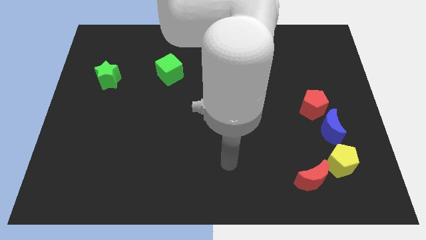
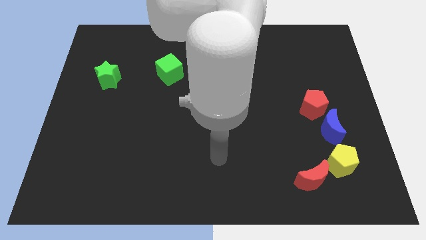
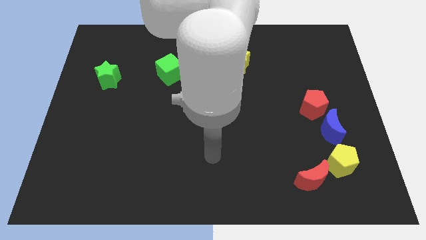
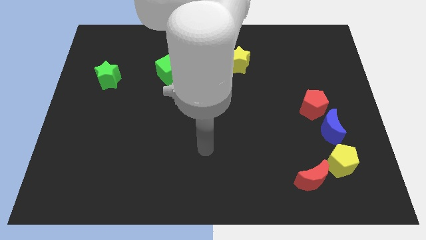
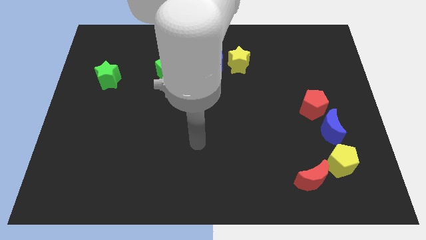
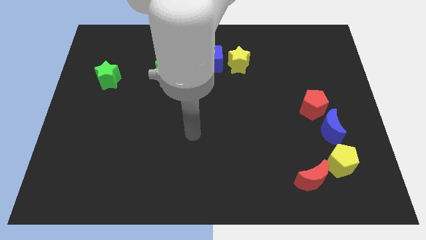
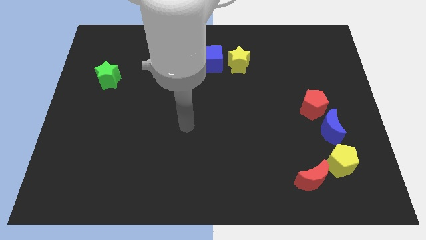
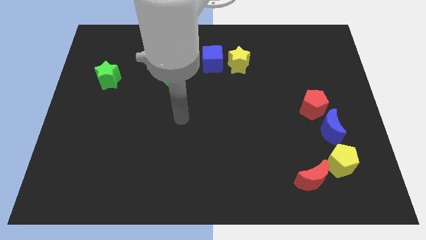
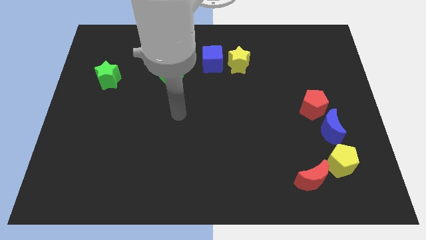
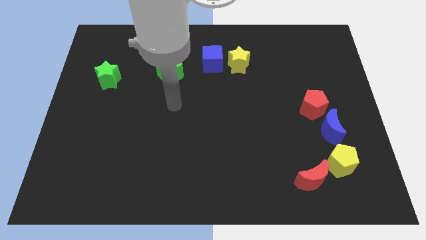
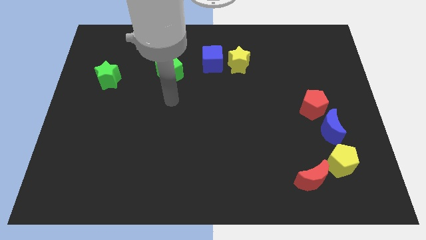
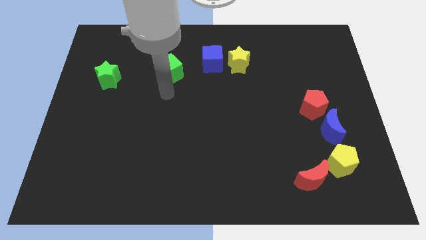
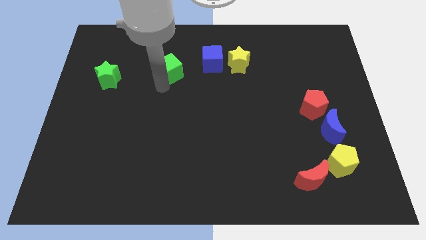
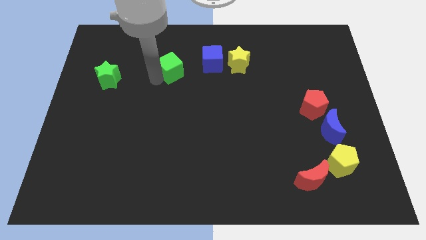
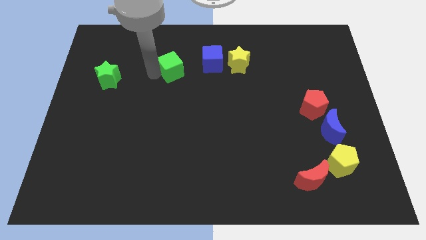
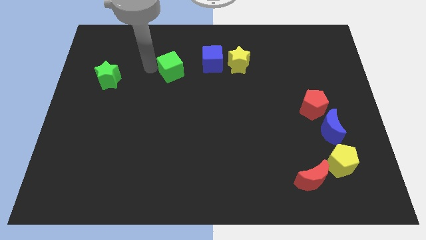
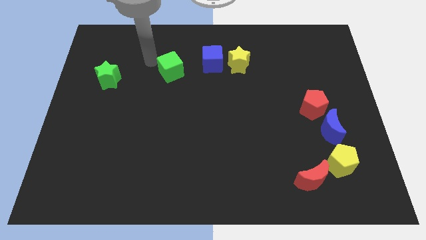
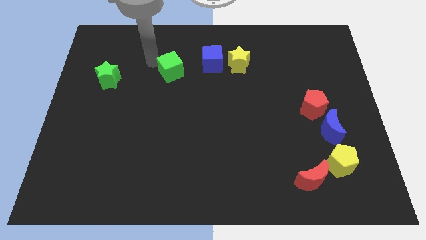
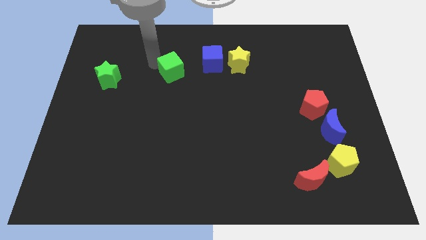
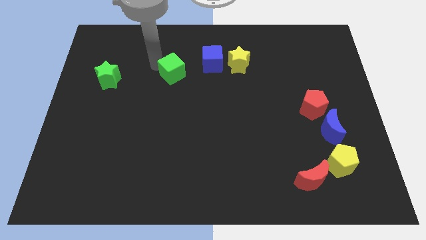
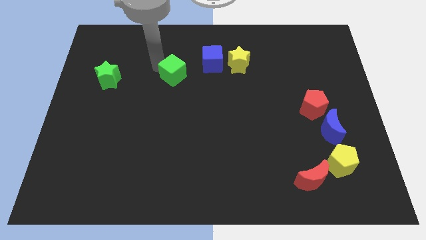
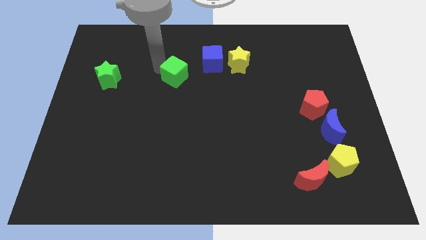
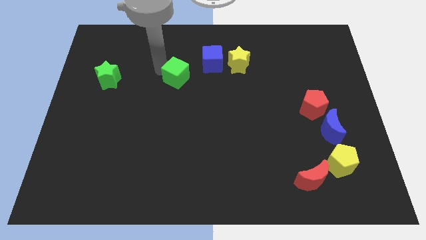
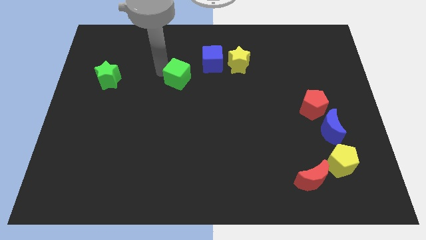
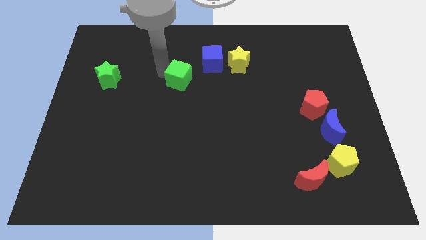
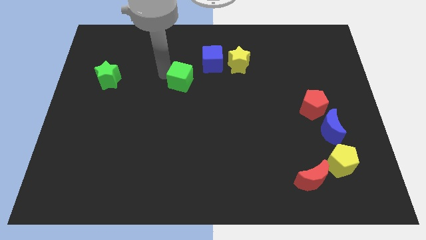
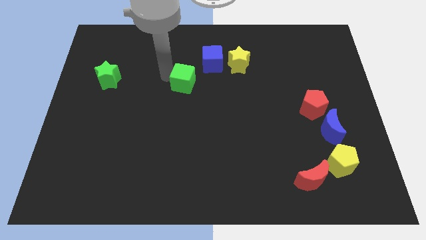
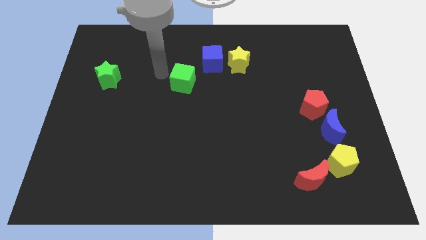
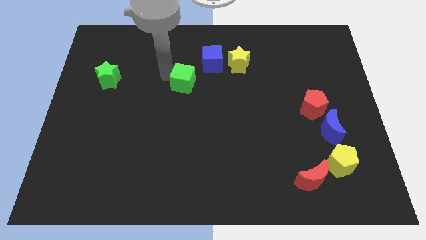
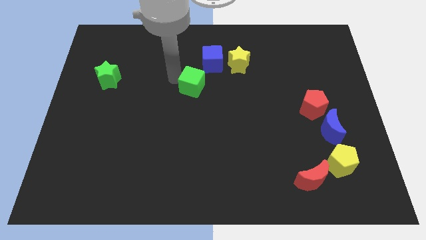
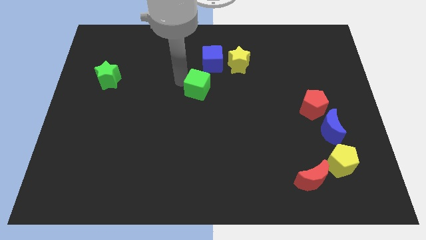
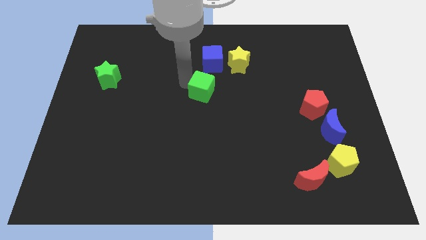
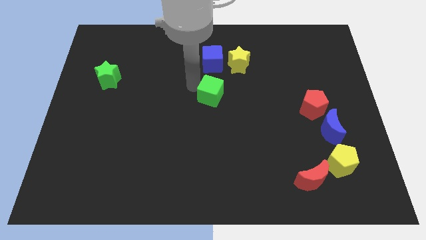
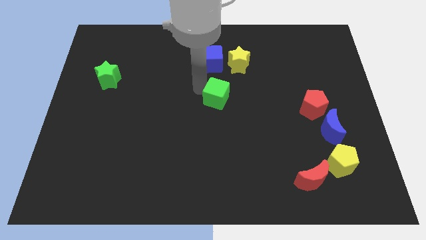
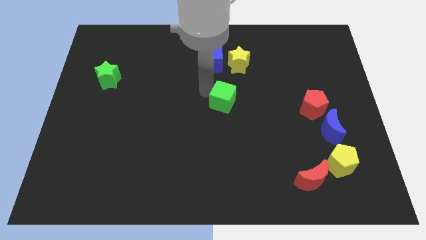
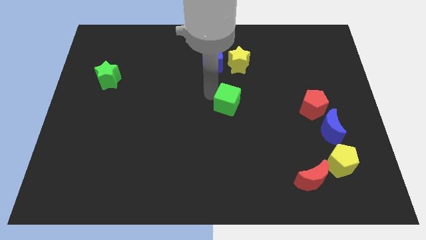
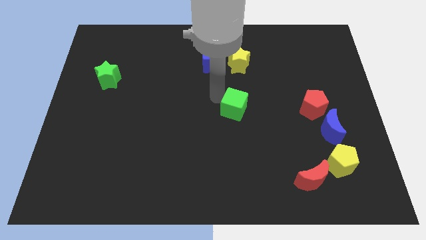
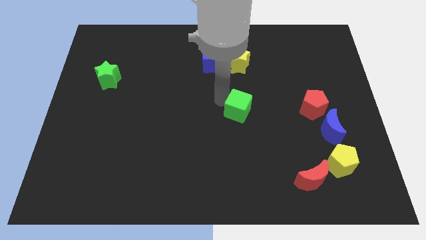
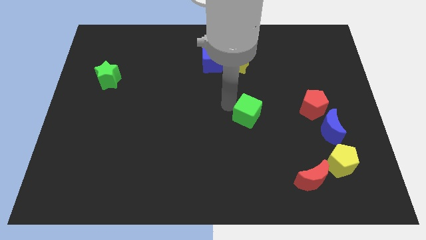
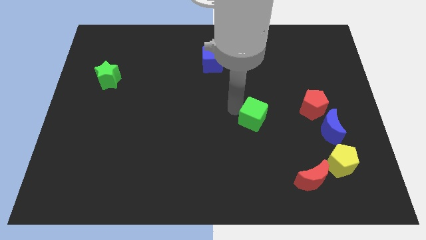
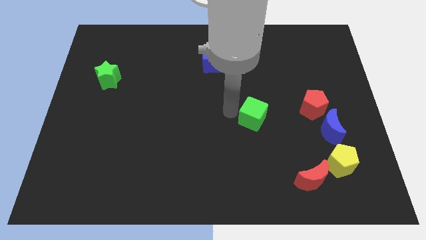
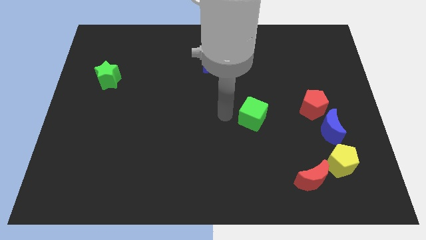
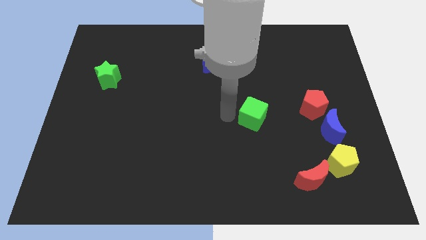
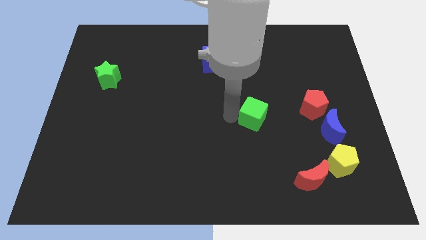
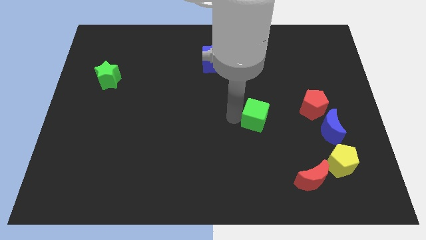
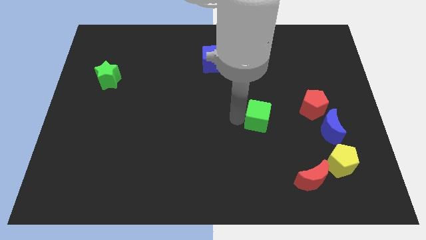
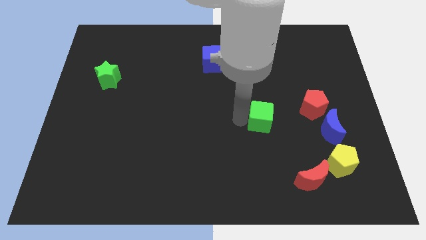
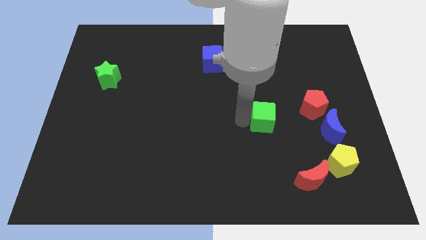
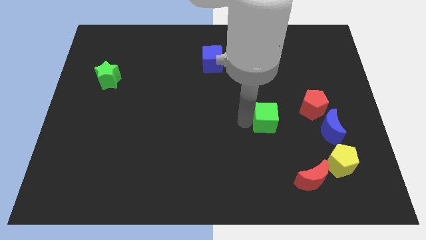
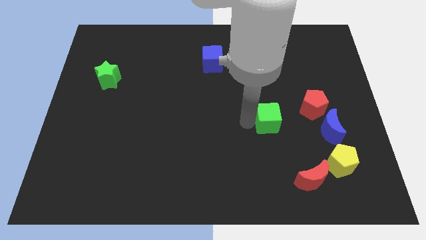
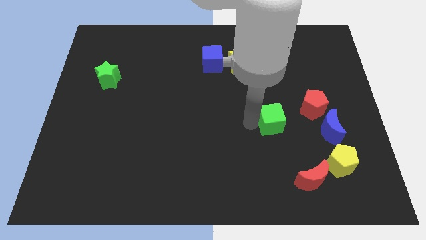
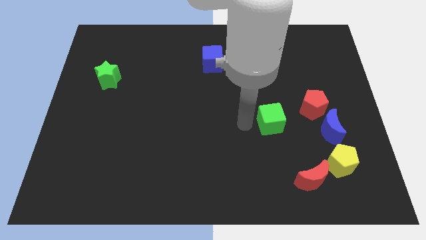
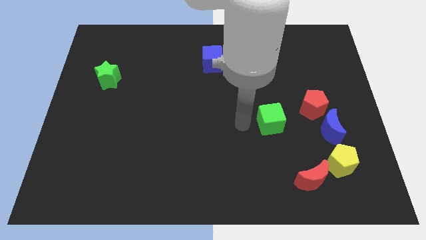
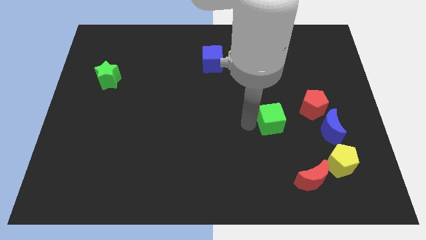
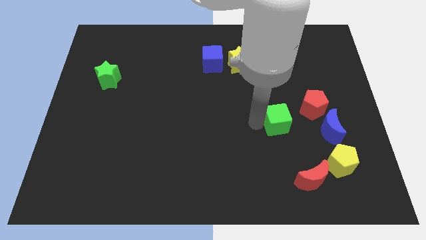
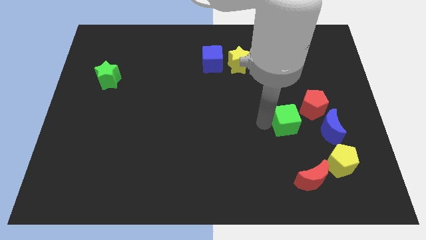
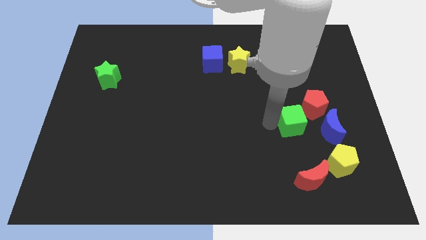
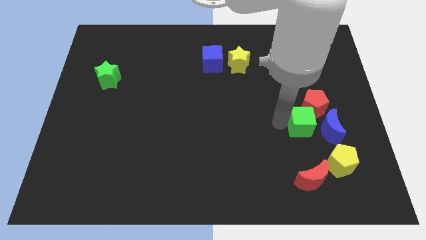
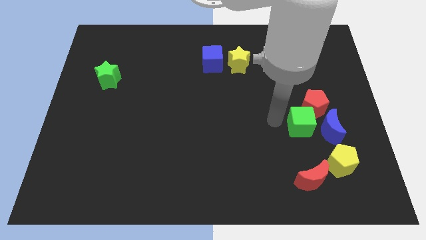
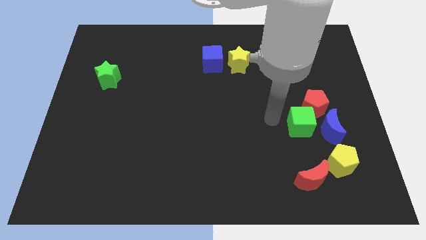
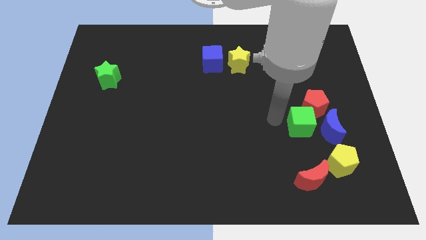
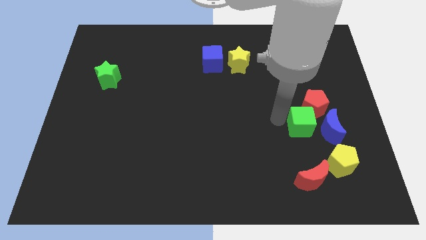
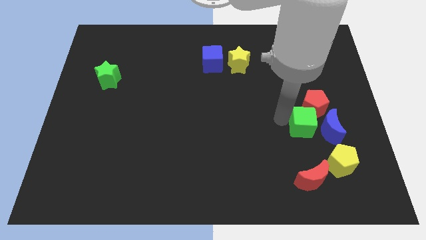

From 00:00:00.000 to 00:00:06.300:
push the green cube towards the blue moon

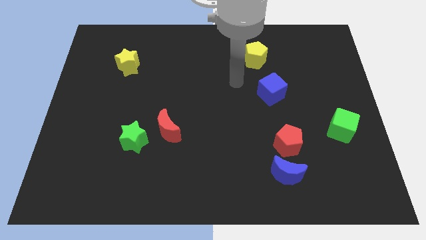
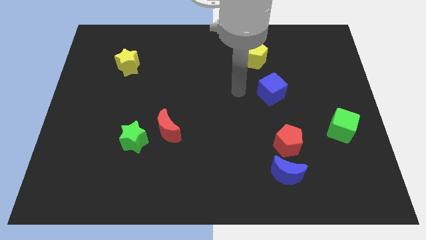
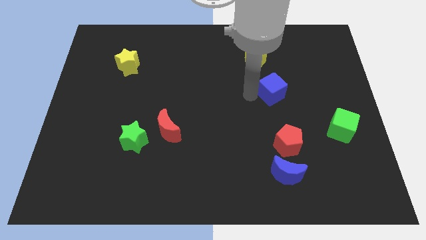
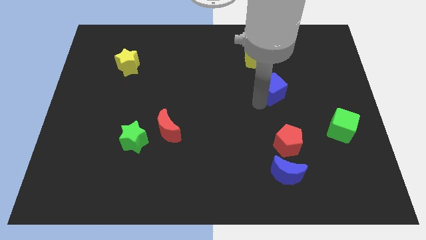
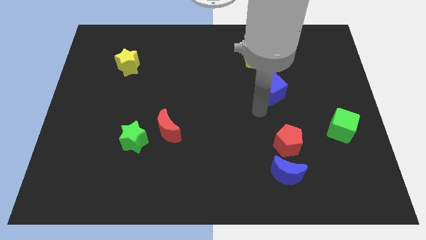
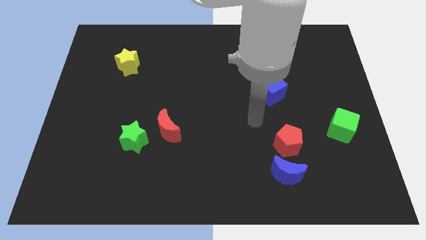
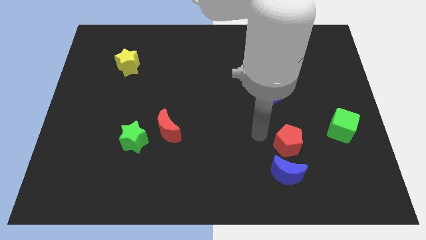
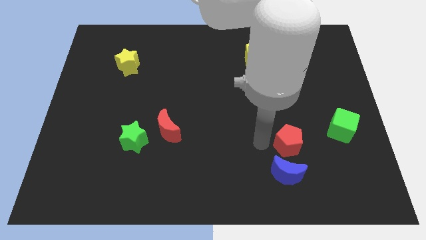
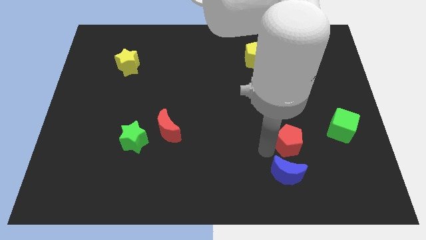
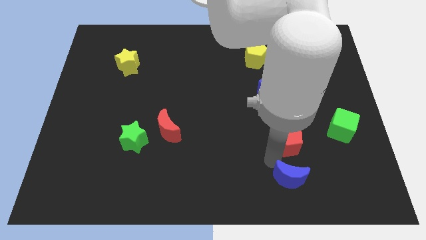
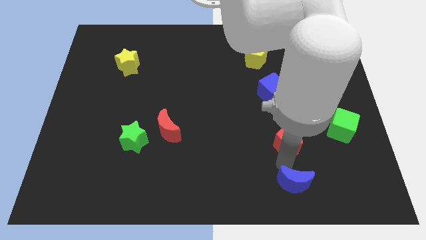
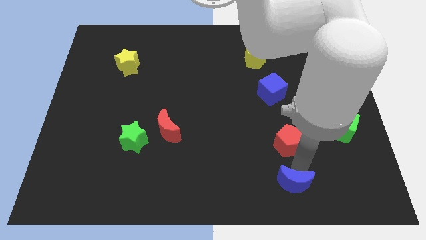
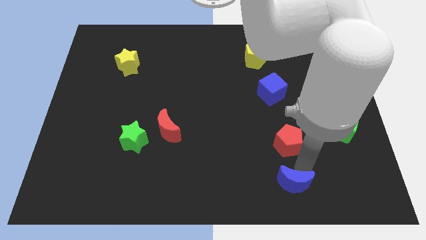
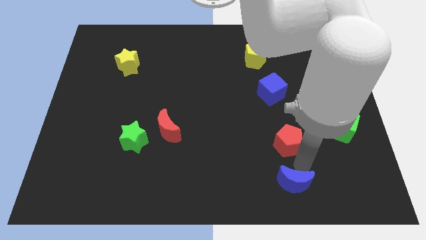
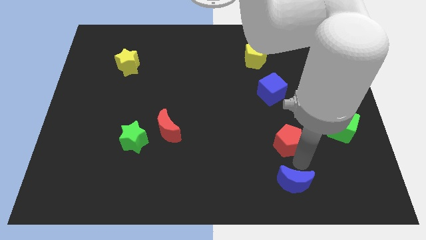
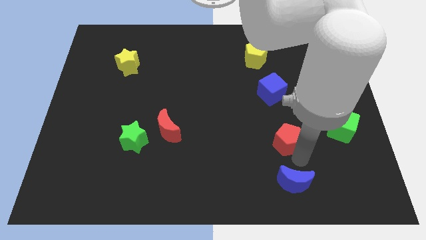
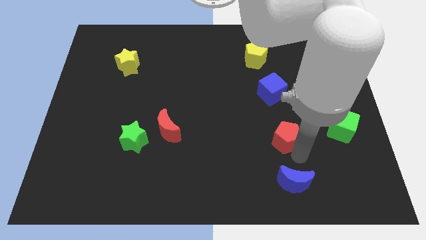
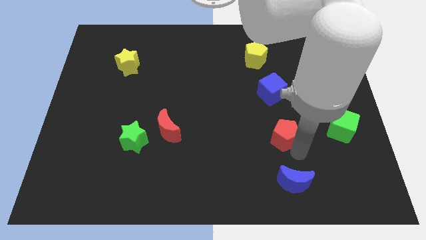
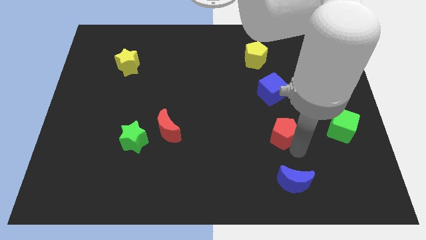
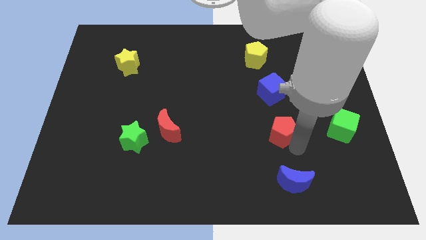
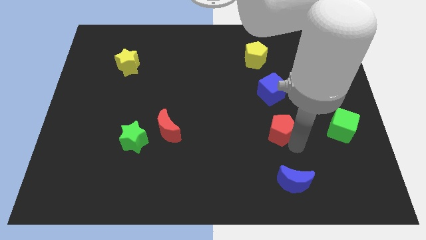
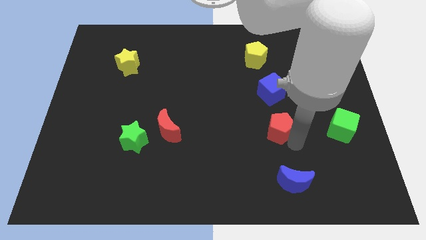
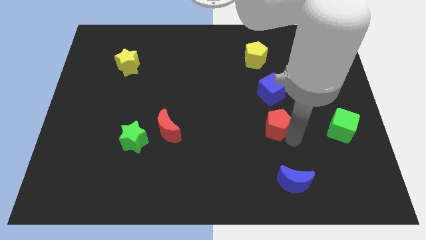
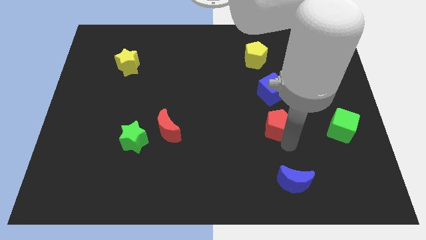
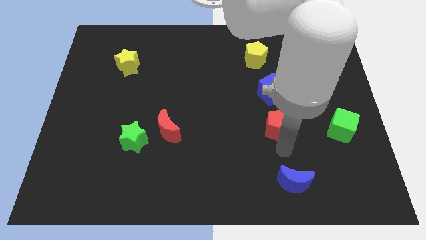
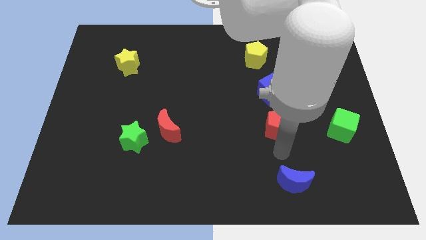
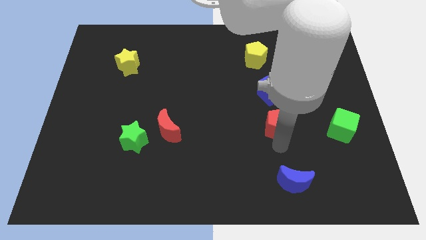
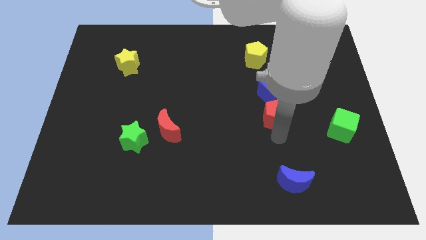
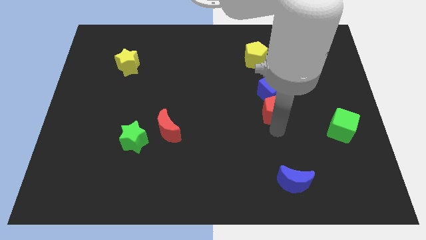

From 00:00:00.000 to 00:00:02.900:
slide the red pentagon close to the blue cube
